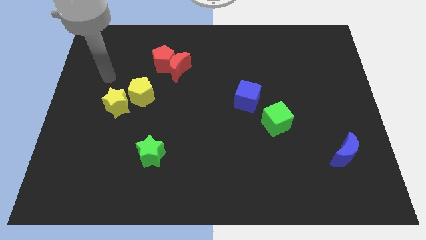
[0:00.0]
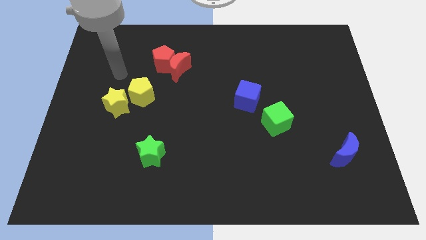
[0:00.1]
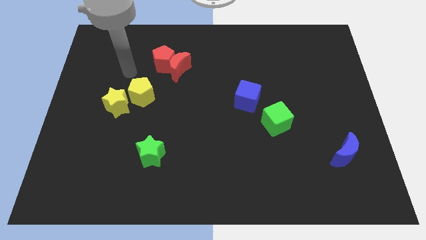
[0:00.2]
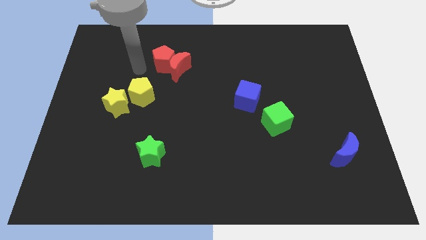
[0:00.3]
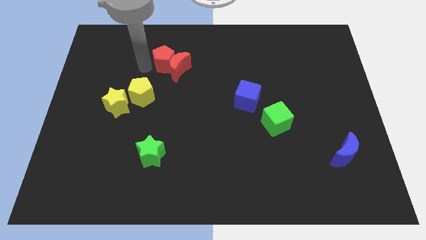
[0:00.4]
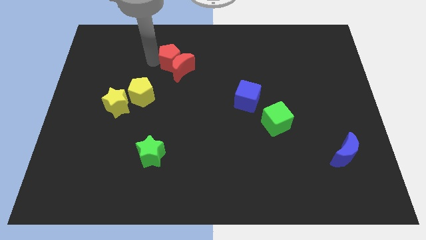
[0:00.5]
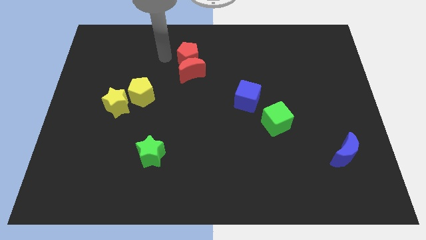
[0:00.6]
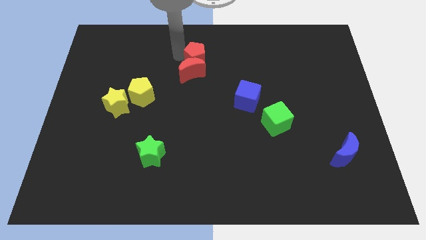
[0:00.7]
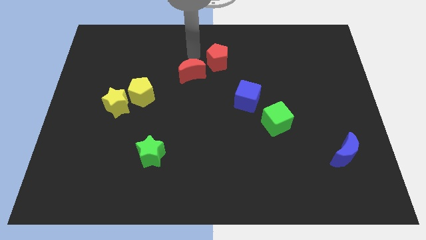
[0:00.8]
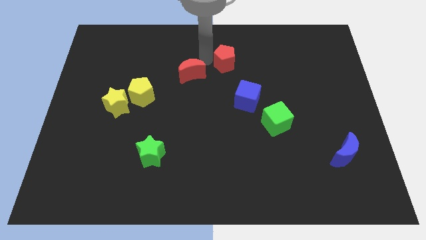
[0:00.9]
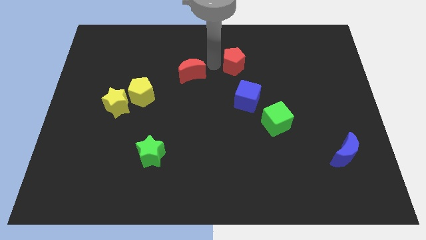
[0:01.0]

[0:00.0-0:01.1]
separate the red moon from the red pentagon

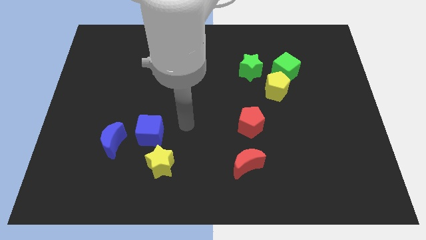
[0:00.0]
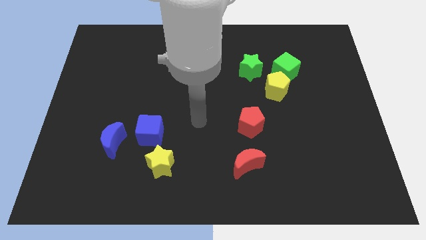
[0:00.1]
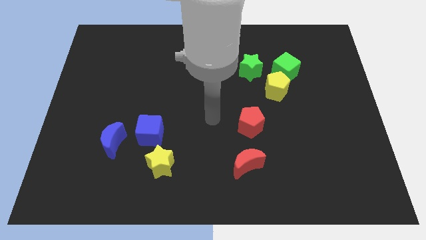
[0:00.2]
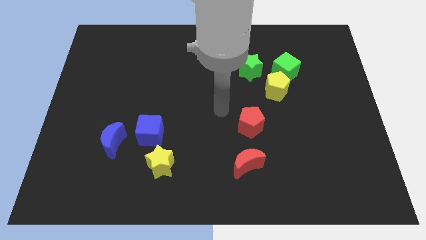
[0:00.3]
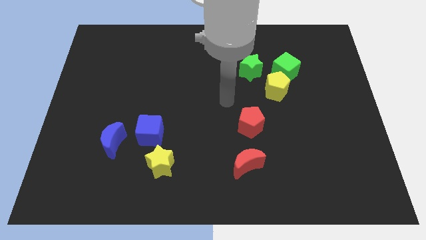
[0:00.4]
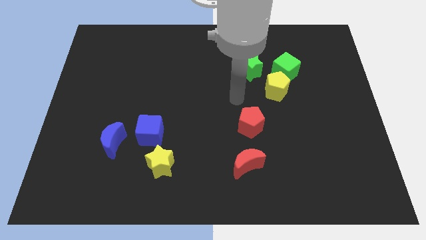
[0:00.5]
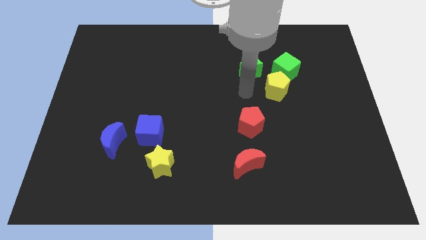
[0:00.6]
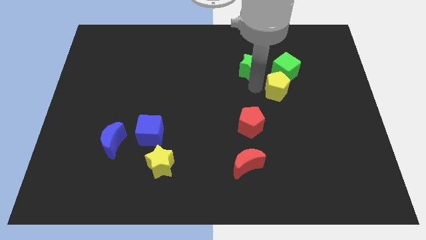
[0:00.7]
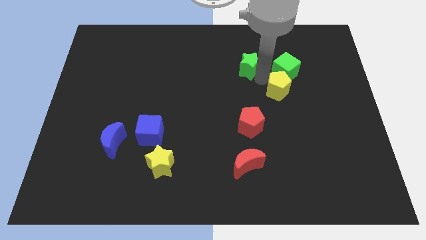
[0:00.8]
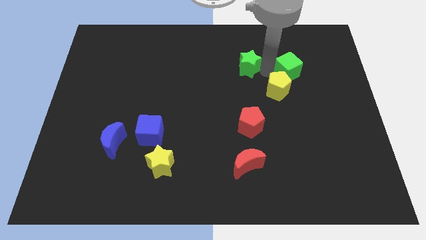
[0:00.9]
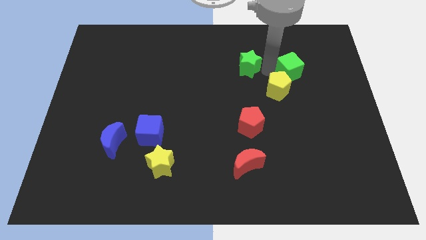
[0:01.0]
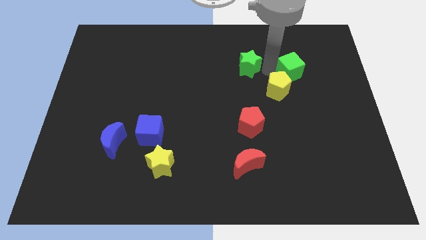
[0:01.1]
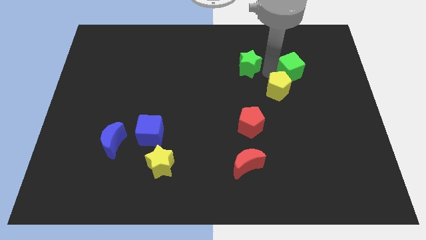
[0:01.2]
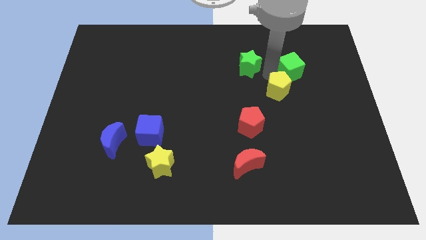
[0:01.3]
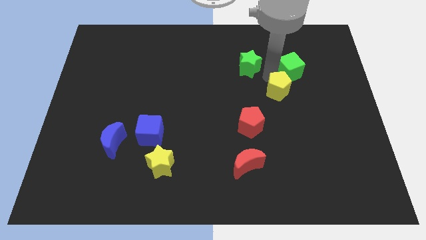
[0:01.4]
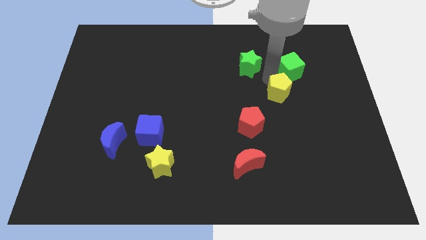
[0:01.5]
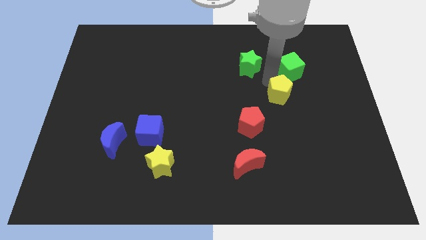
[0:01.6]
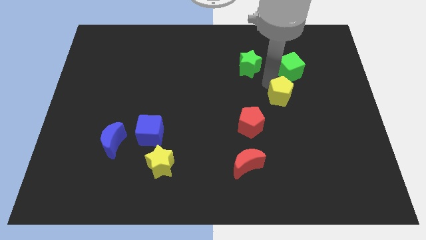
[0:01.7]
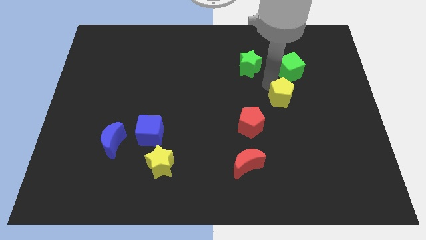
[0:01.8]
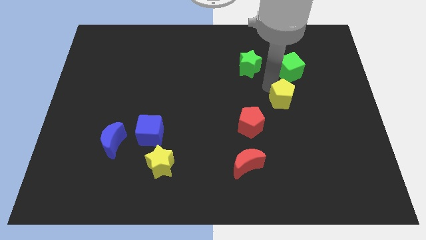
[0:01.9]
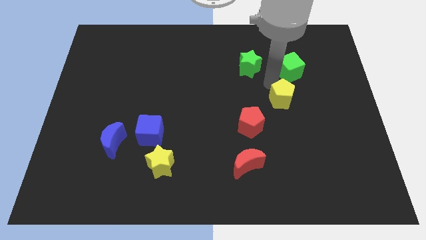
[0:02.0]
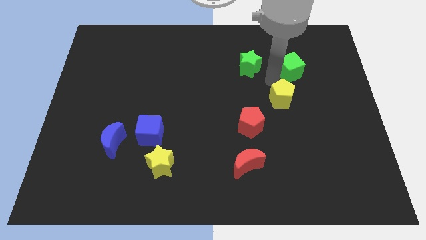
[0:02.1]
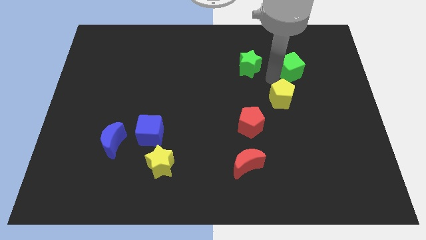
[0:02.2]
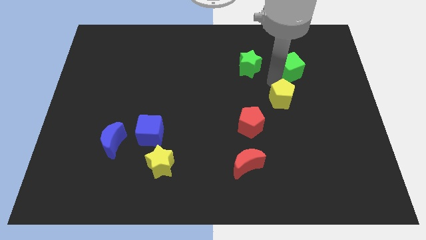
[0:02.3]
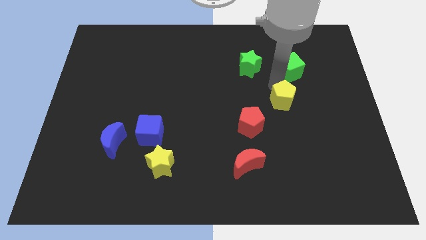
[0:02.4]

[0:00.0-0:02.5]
separate the yellow pentagon from the green cube and green star

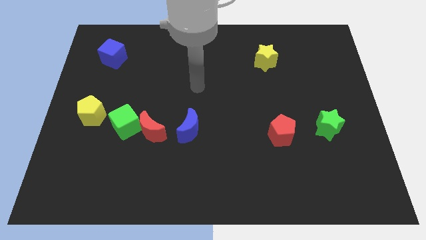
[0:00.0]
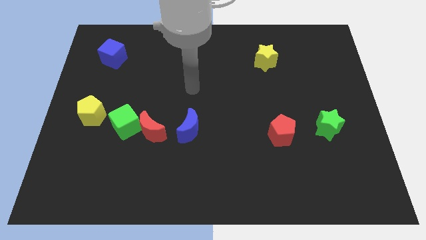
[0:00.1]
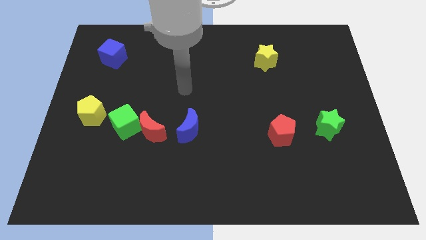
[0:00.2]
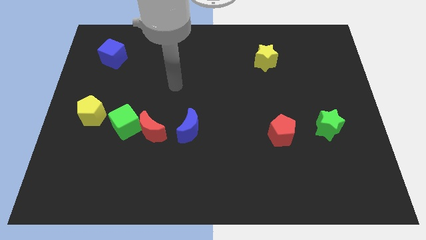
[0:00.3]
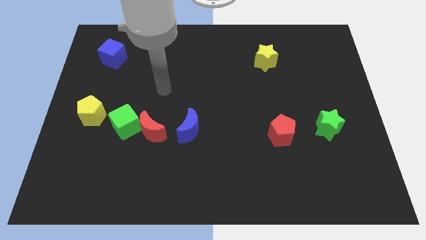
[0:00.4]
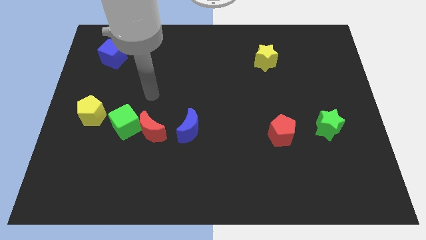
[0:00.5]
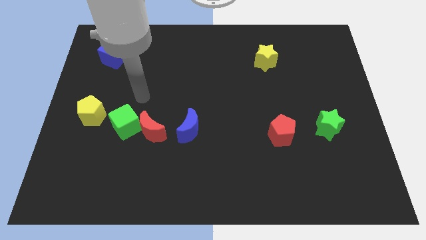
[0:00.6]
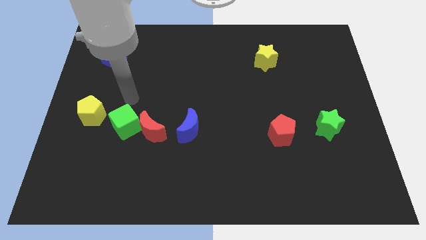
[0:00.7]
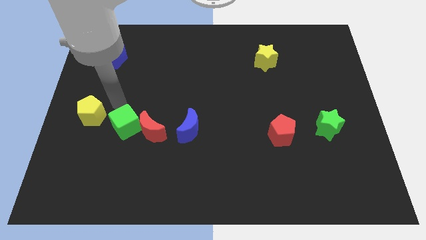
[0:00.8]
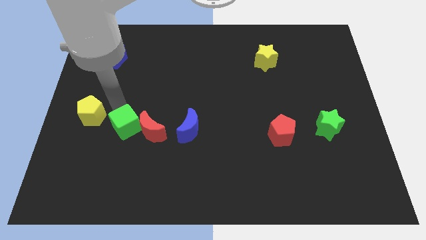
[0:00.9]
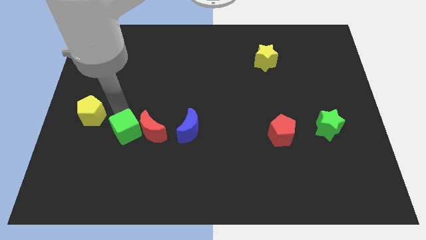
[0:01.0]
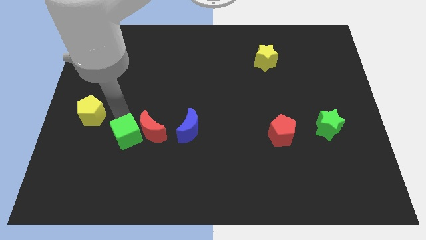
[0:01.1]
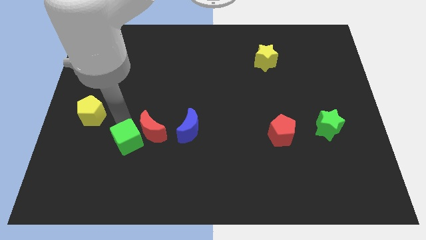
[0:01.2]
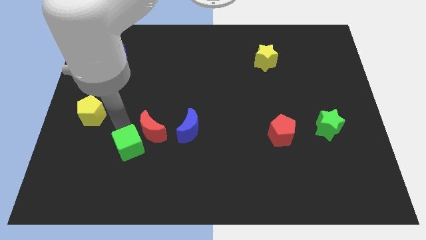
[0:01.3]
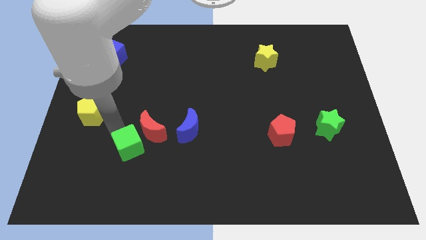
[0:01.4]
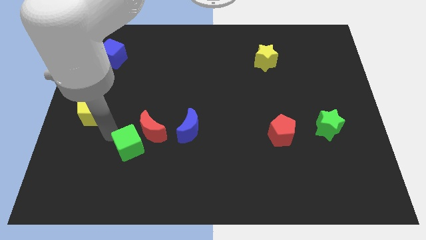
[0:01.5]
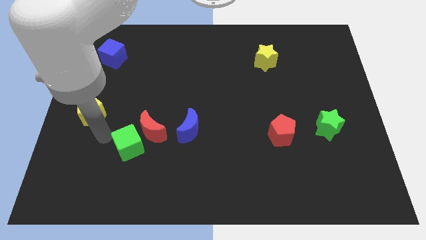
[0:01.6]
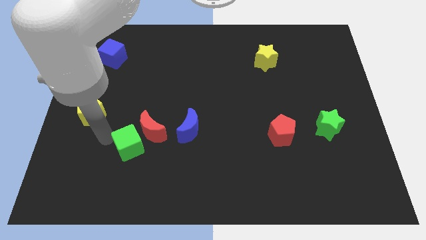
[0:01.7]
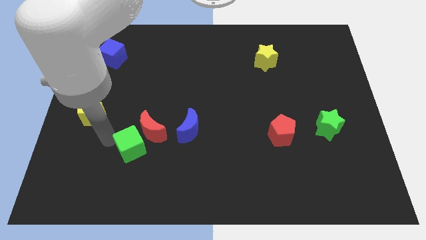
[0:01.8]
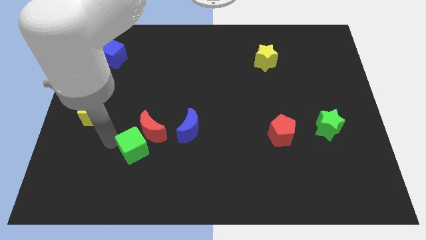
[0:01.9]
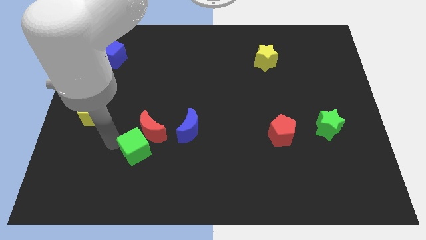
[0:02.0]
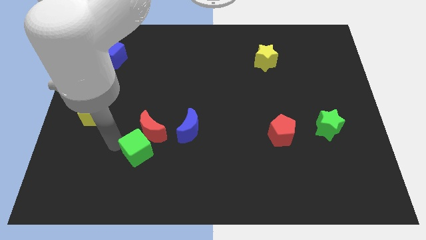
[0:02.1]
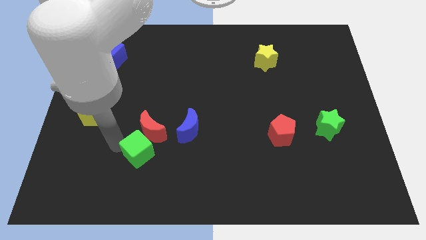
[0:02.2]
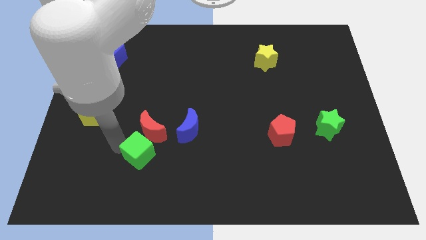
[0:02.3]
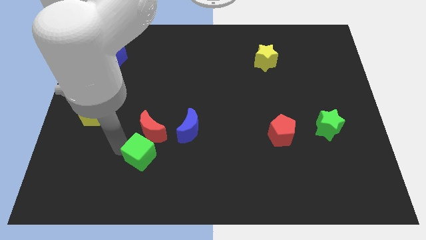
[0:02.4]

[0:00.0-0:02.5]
separate the green cube from the red moon and yellow pentagon

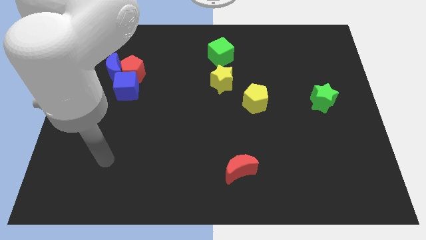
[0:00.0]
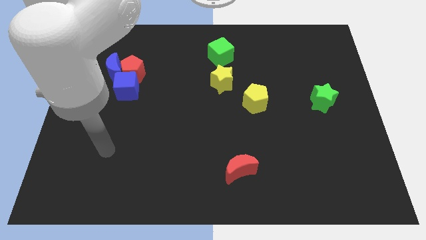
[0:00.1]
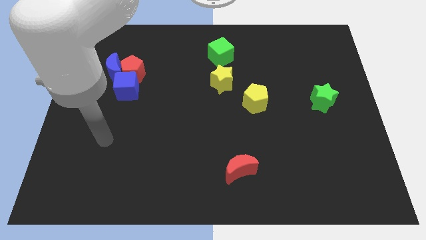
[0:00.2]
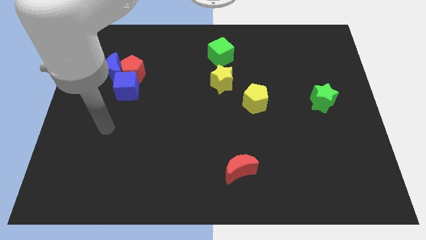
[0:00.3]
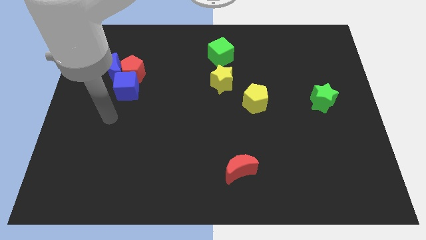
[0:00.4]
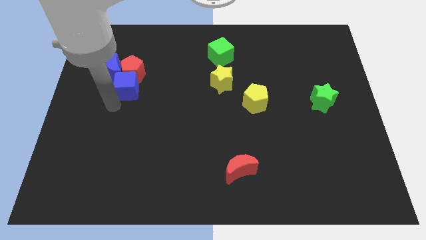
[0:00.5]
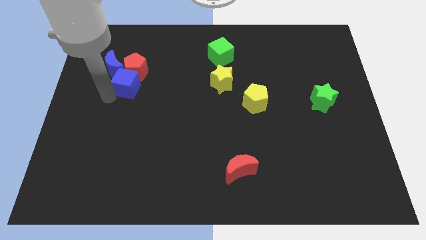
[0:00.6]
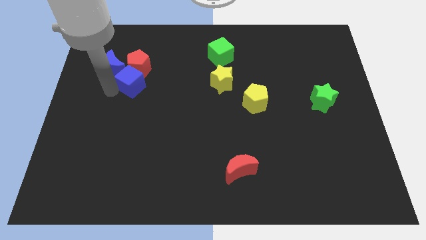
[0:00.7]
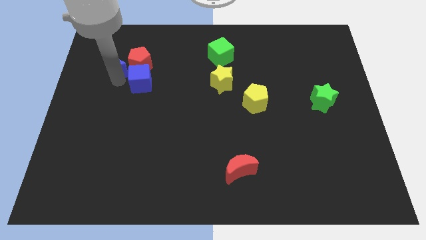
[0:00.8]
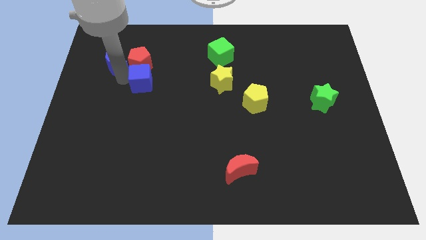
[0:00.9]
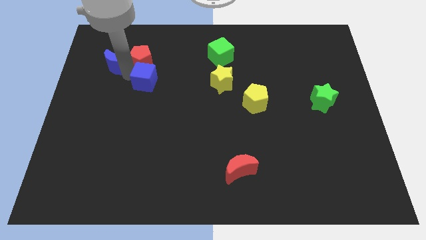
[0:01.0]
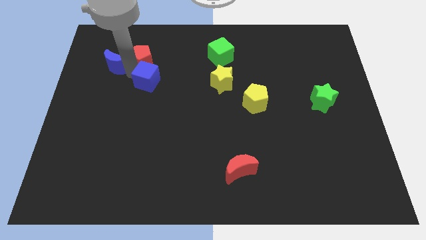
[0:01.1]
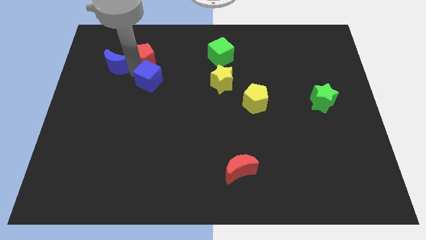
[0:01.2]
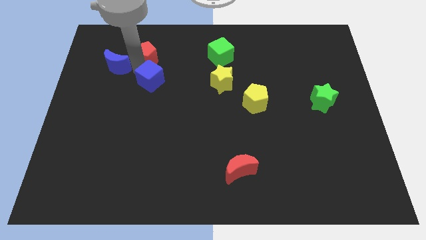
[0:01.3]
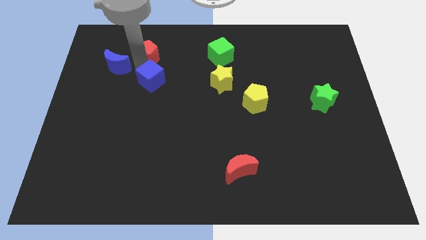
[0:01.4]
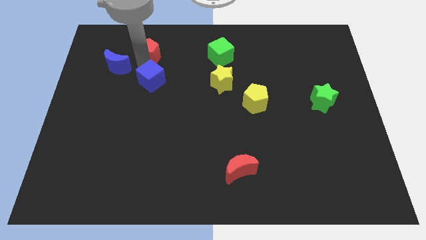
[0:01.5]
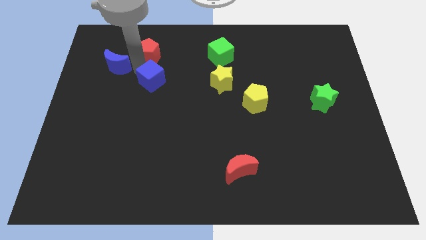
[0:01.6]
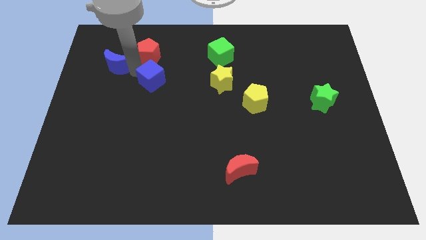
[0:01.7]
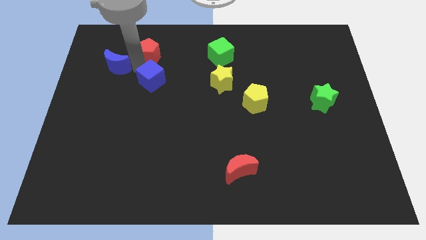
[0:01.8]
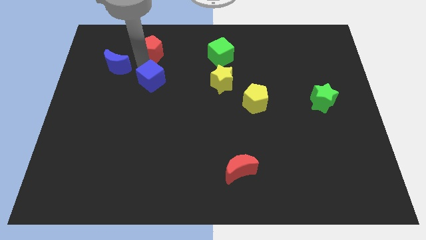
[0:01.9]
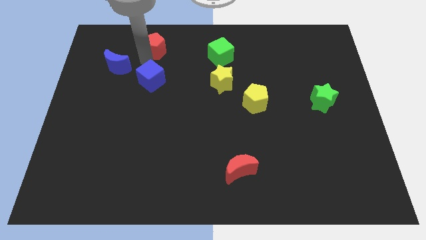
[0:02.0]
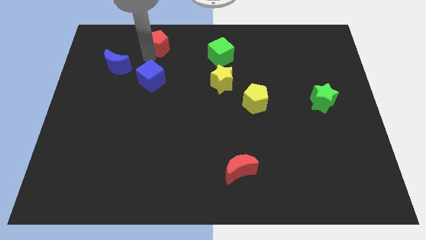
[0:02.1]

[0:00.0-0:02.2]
move the red pentagon away from the blue moon and blue cube

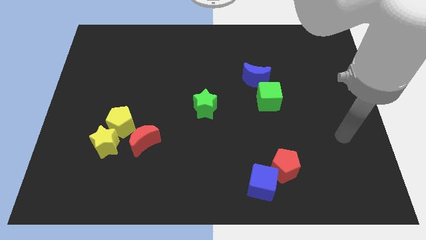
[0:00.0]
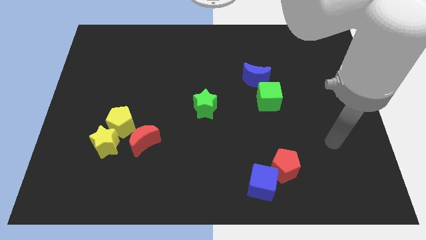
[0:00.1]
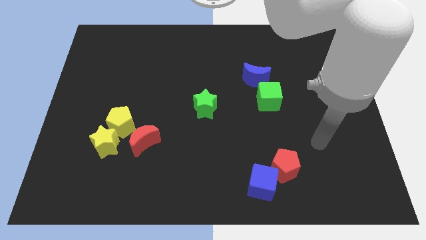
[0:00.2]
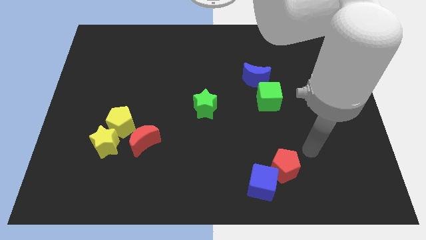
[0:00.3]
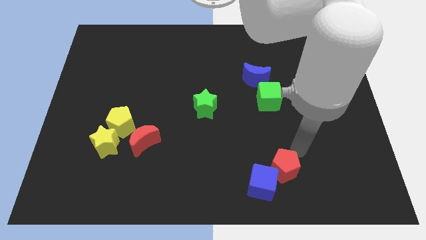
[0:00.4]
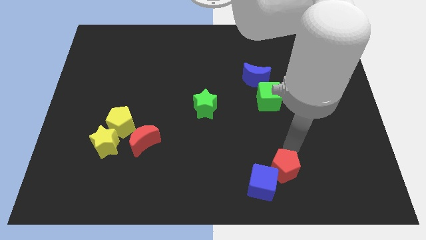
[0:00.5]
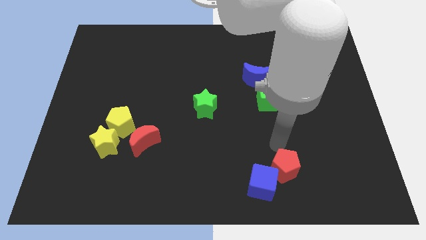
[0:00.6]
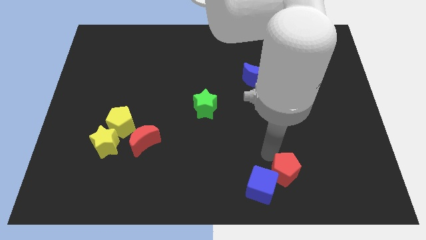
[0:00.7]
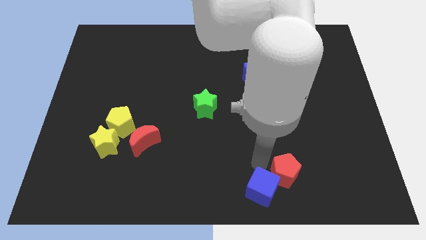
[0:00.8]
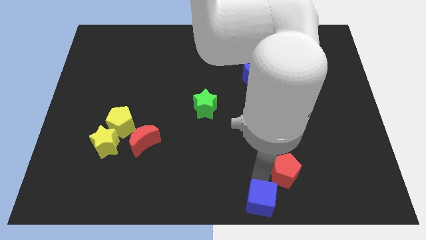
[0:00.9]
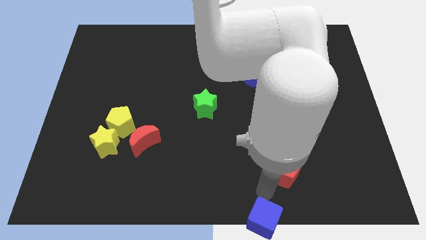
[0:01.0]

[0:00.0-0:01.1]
separate the red pentagon from the blue cube
